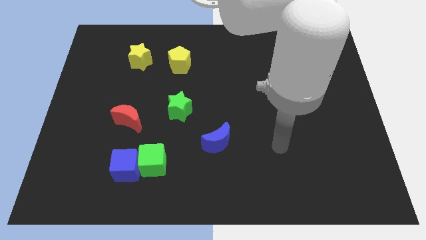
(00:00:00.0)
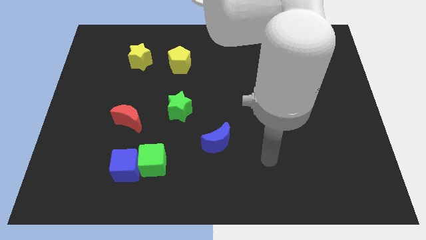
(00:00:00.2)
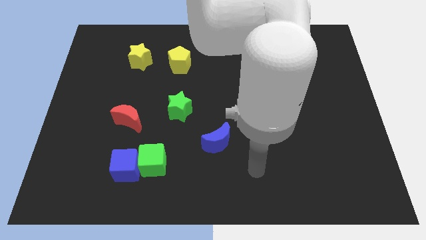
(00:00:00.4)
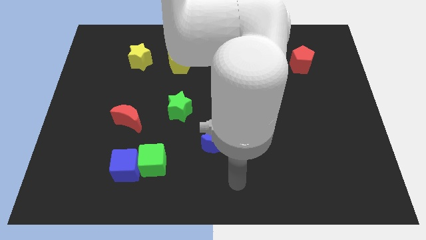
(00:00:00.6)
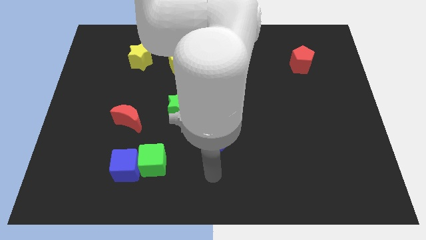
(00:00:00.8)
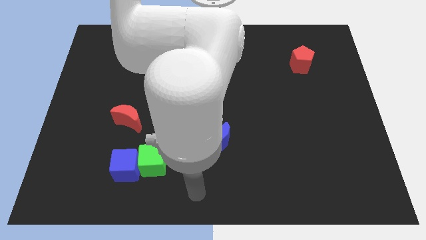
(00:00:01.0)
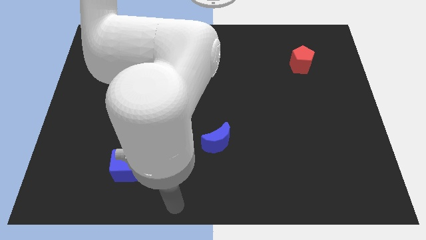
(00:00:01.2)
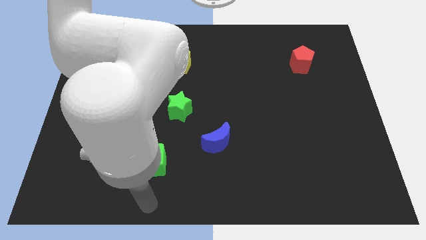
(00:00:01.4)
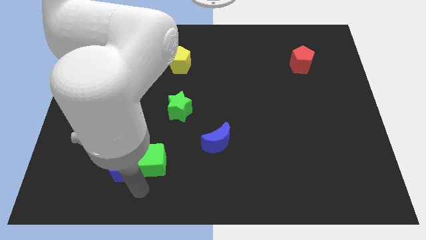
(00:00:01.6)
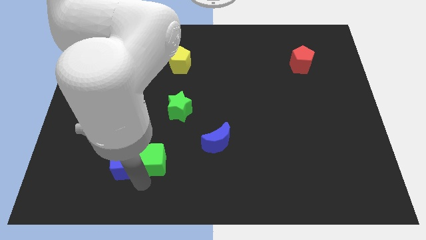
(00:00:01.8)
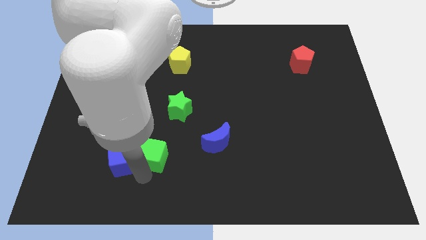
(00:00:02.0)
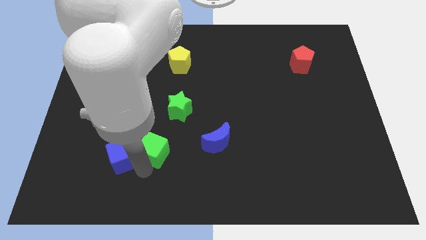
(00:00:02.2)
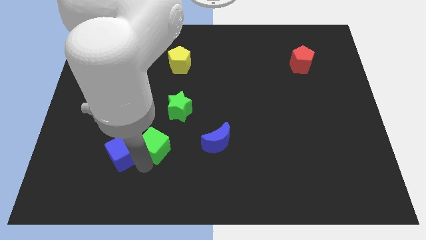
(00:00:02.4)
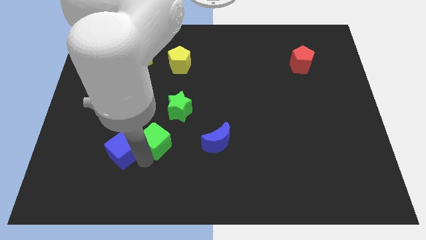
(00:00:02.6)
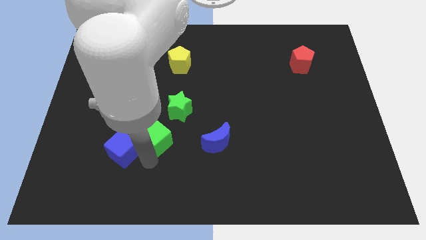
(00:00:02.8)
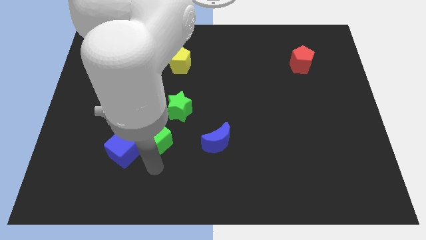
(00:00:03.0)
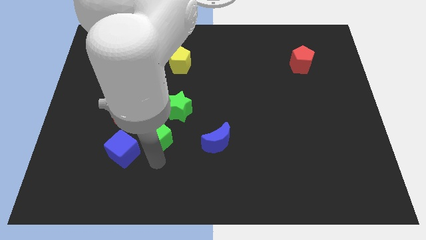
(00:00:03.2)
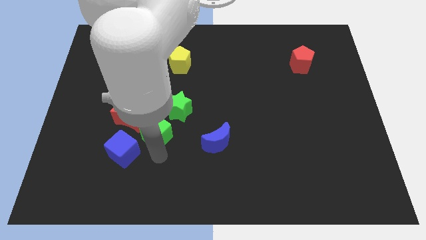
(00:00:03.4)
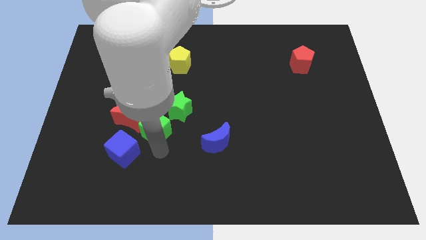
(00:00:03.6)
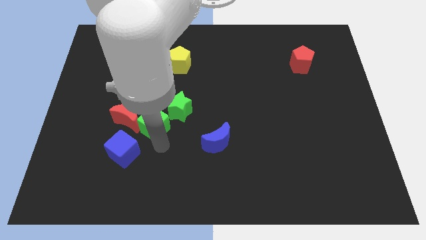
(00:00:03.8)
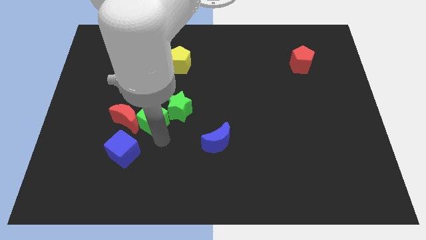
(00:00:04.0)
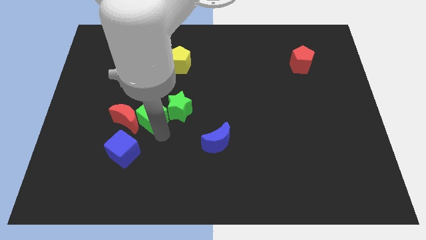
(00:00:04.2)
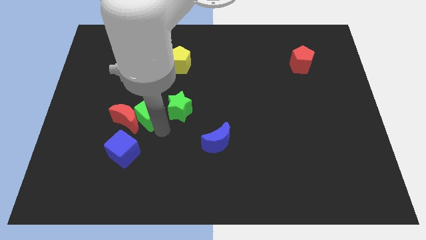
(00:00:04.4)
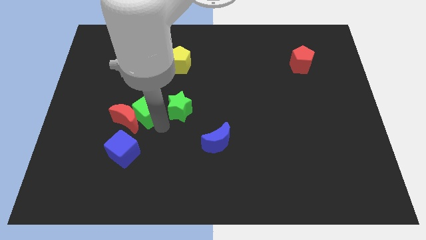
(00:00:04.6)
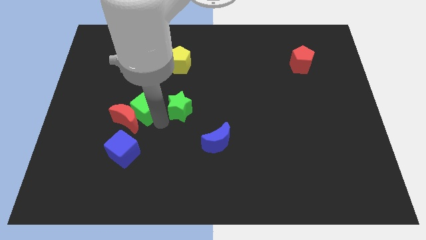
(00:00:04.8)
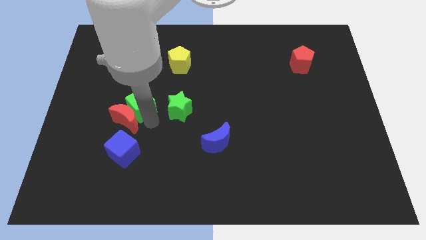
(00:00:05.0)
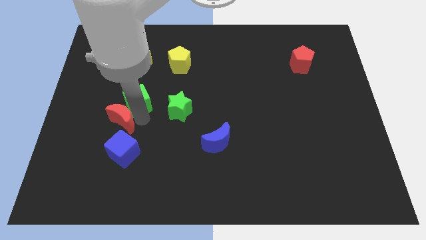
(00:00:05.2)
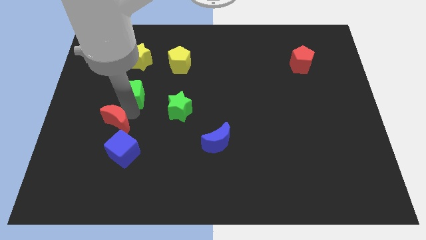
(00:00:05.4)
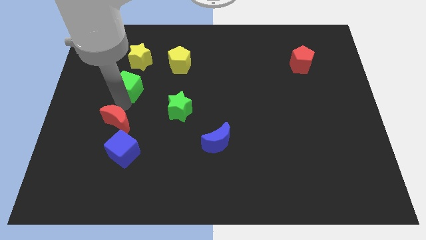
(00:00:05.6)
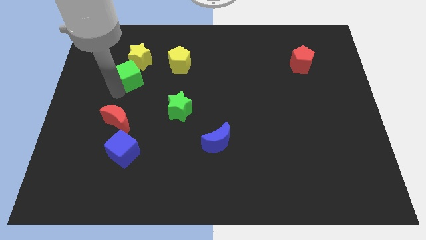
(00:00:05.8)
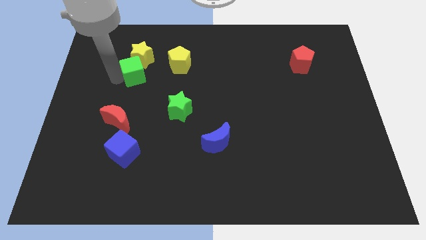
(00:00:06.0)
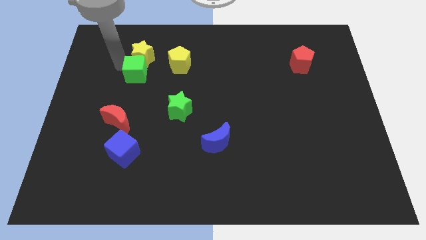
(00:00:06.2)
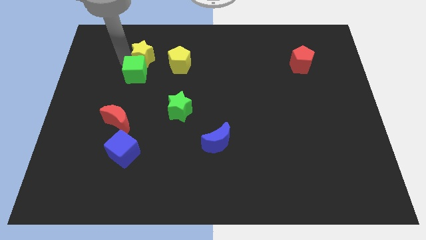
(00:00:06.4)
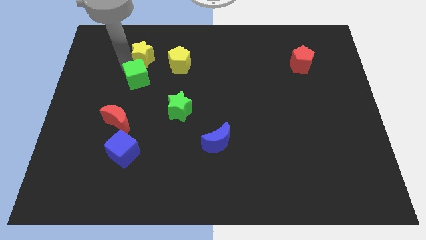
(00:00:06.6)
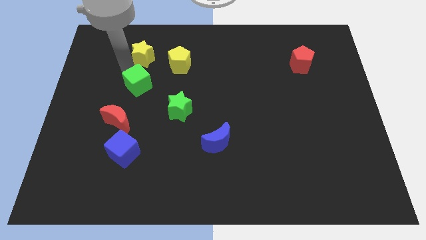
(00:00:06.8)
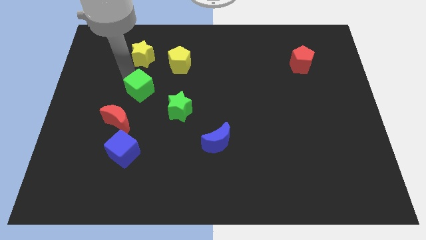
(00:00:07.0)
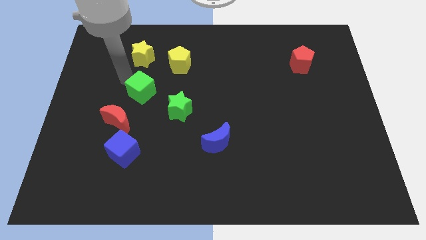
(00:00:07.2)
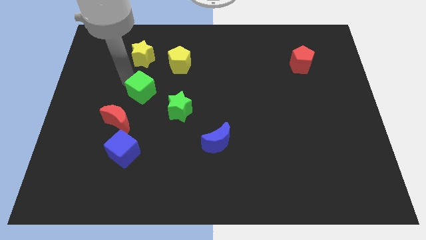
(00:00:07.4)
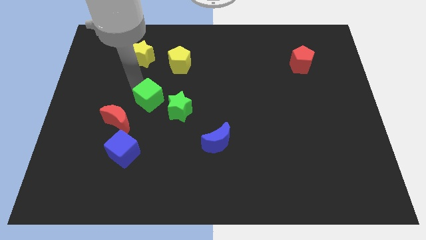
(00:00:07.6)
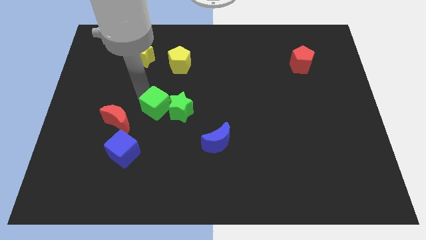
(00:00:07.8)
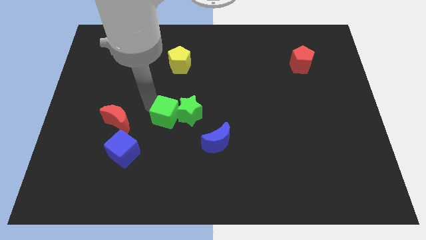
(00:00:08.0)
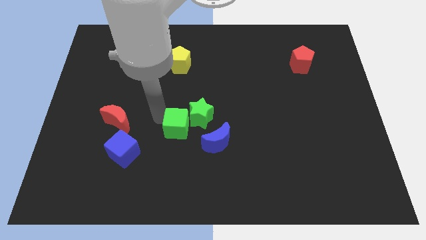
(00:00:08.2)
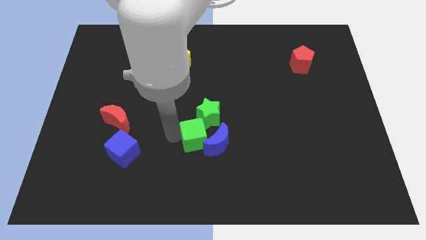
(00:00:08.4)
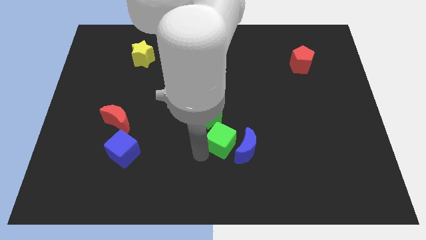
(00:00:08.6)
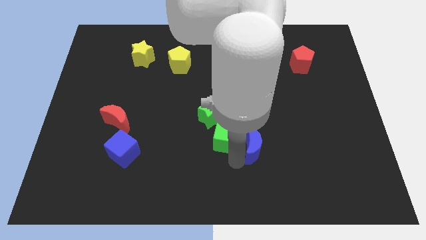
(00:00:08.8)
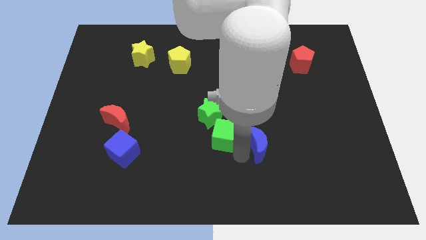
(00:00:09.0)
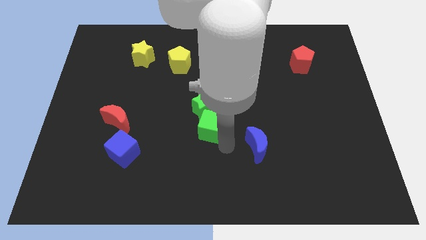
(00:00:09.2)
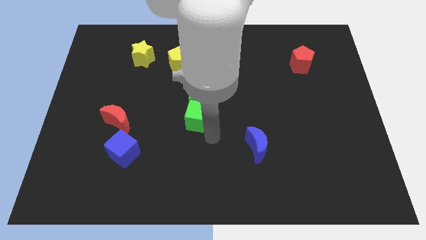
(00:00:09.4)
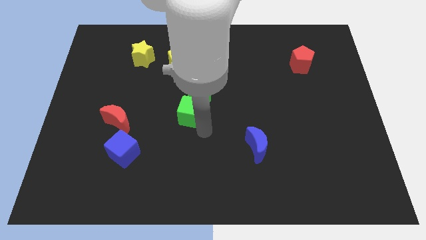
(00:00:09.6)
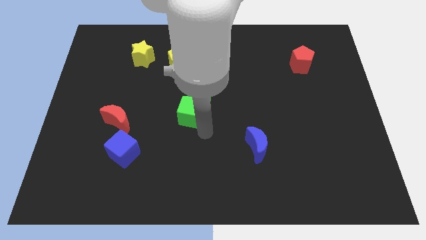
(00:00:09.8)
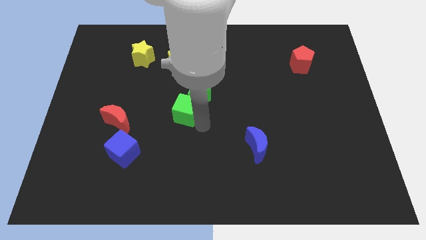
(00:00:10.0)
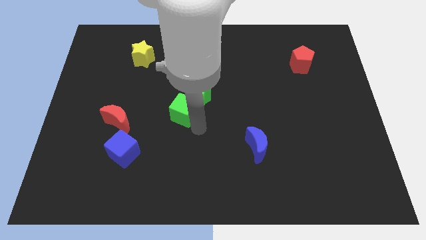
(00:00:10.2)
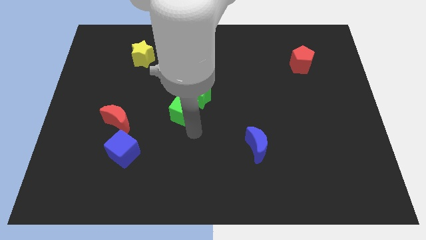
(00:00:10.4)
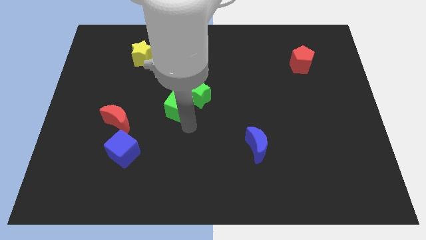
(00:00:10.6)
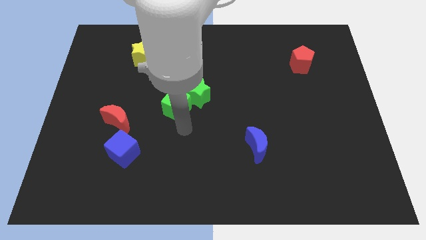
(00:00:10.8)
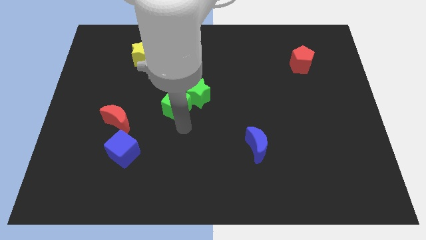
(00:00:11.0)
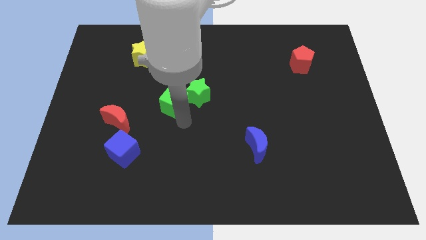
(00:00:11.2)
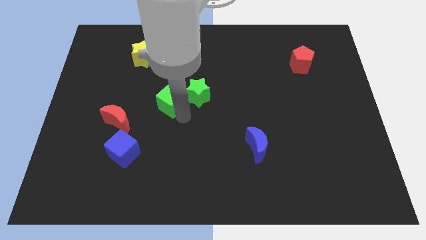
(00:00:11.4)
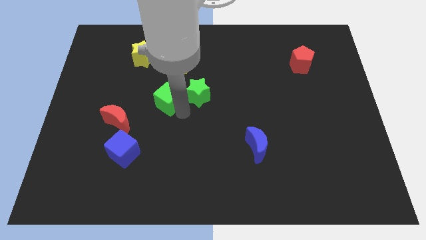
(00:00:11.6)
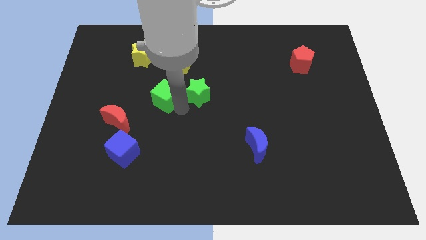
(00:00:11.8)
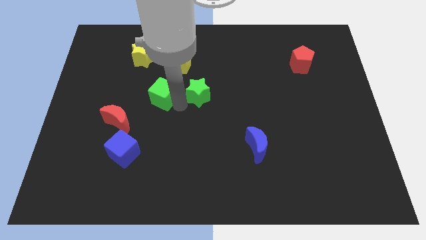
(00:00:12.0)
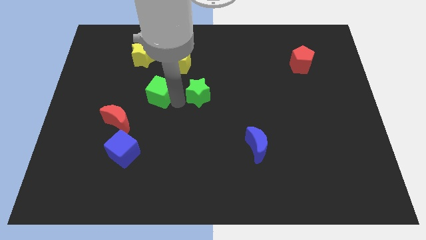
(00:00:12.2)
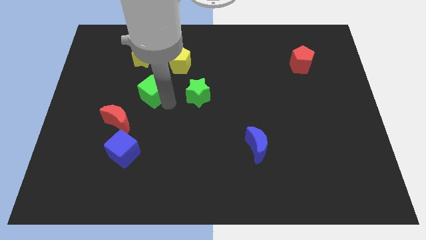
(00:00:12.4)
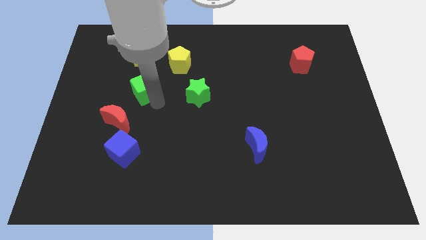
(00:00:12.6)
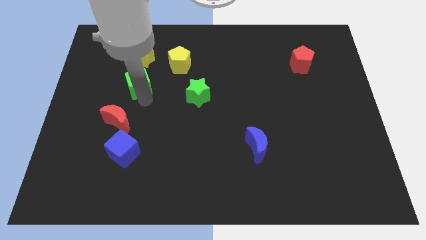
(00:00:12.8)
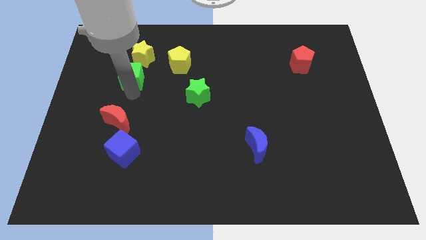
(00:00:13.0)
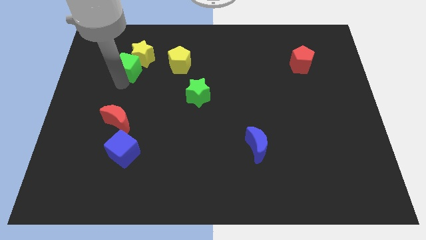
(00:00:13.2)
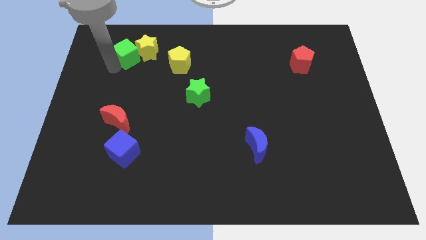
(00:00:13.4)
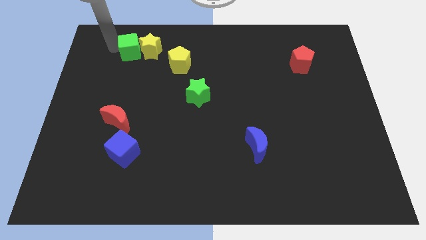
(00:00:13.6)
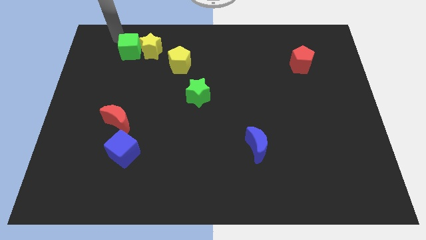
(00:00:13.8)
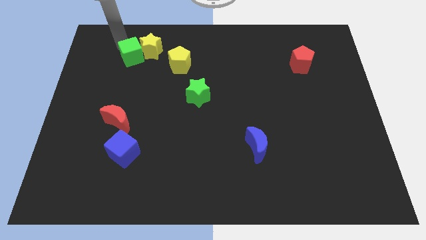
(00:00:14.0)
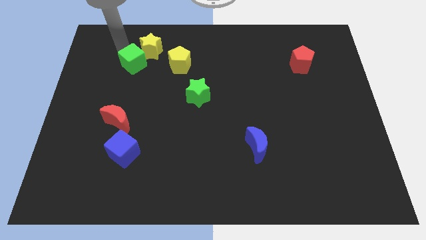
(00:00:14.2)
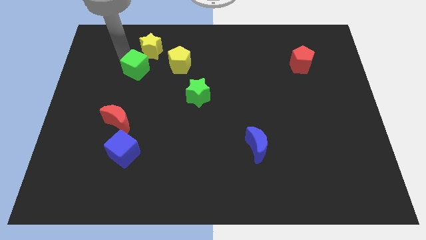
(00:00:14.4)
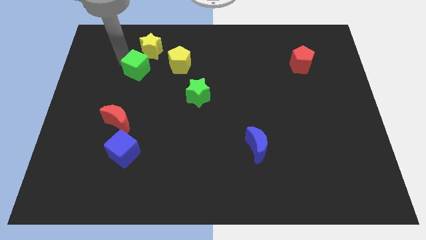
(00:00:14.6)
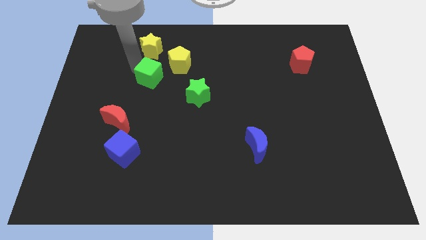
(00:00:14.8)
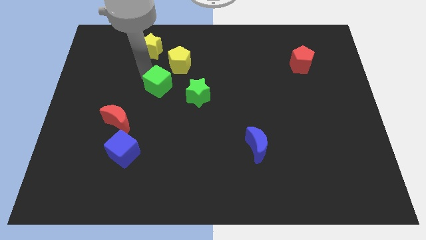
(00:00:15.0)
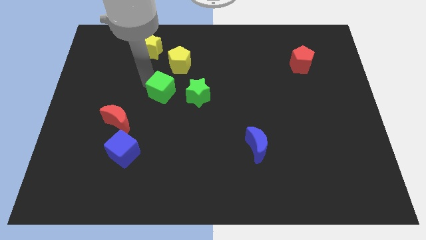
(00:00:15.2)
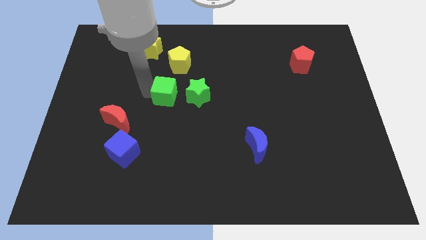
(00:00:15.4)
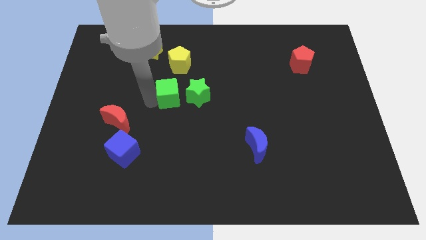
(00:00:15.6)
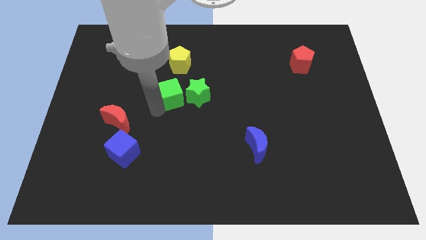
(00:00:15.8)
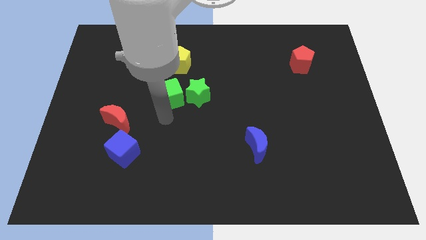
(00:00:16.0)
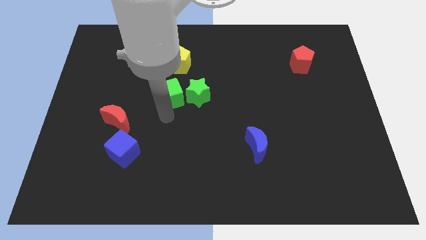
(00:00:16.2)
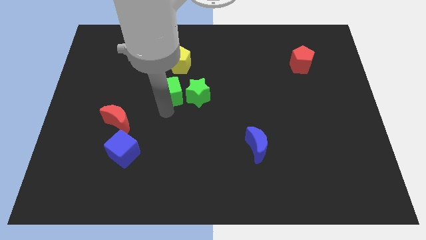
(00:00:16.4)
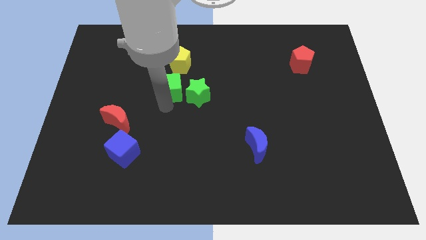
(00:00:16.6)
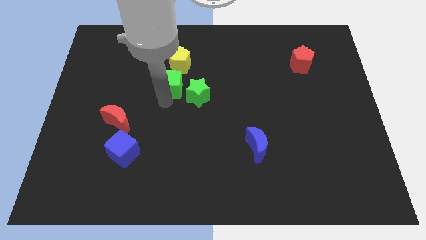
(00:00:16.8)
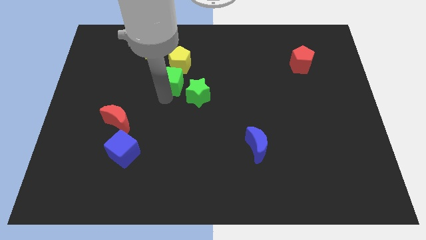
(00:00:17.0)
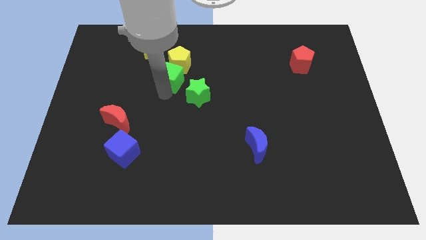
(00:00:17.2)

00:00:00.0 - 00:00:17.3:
slide the green cube next to the yellow pentagon
